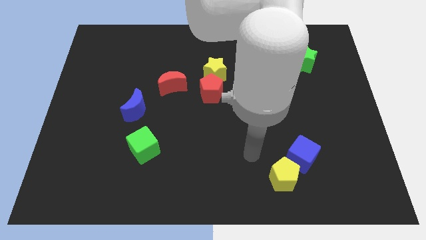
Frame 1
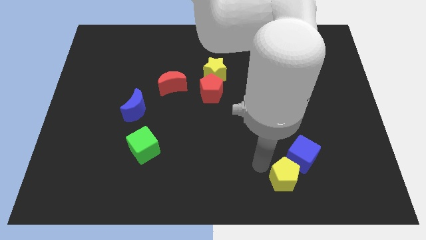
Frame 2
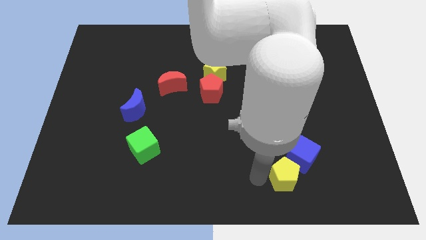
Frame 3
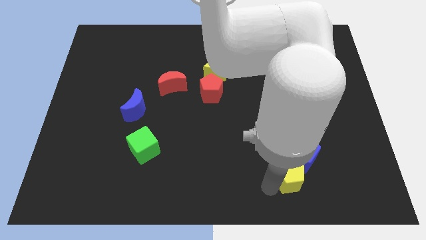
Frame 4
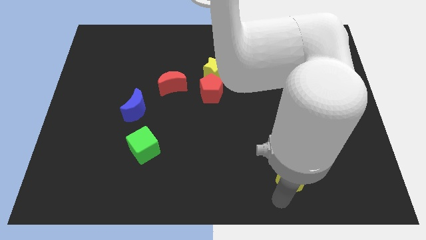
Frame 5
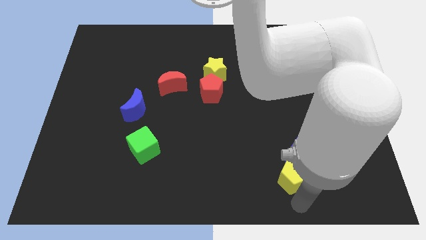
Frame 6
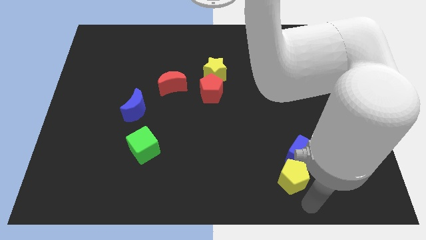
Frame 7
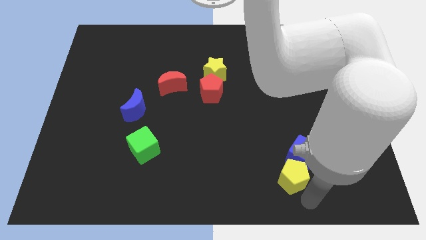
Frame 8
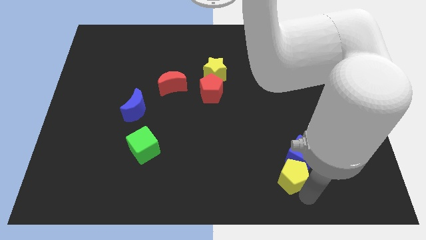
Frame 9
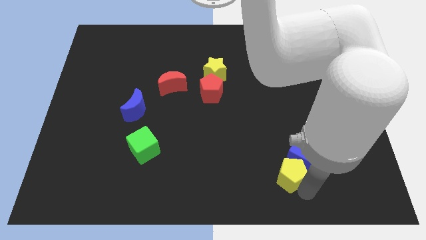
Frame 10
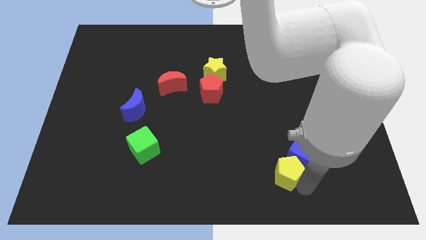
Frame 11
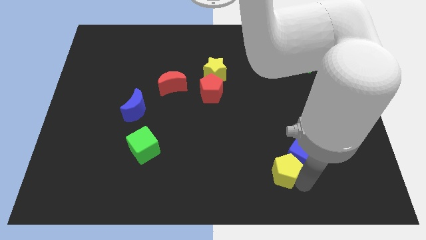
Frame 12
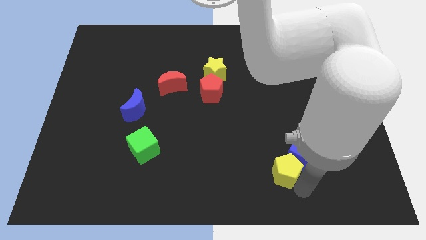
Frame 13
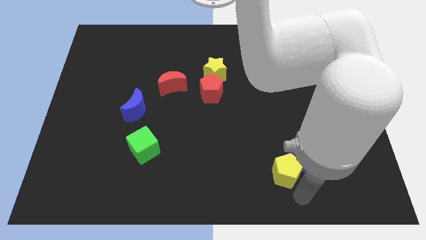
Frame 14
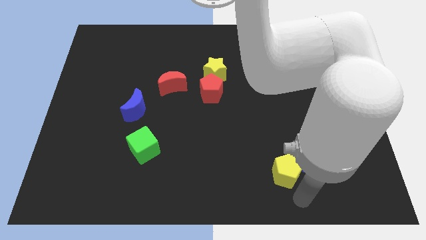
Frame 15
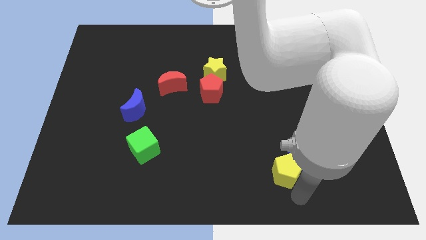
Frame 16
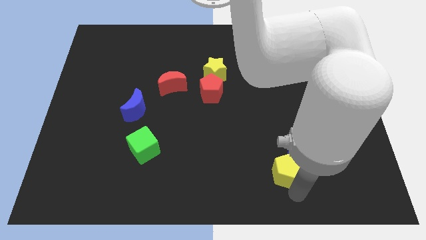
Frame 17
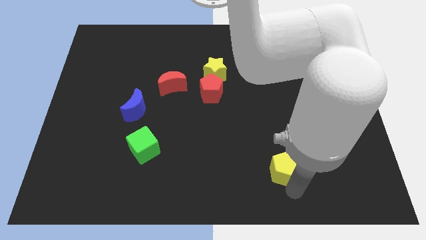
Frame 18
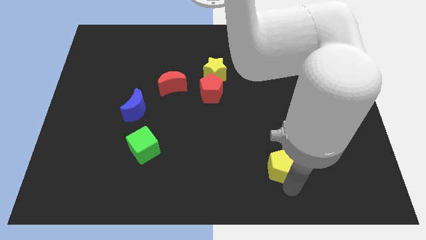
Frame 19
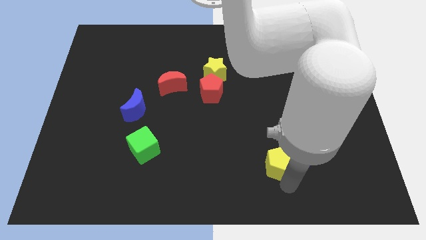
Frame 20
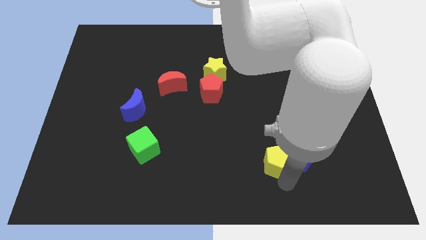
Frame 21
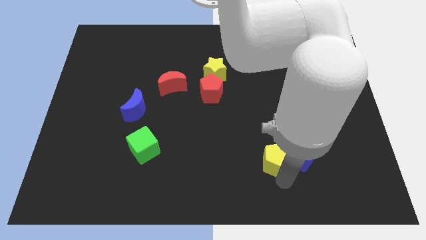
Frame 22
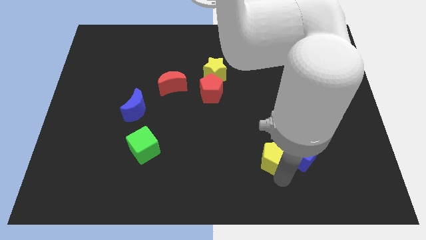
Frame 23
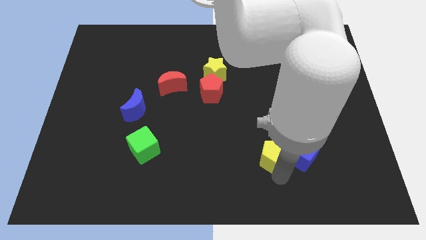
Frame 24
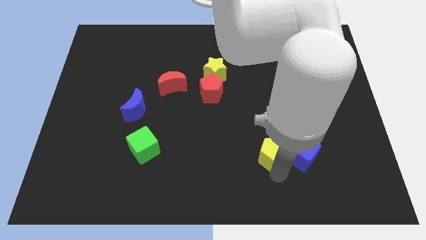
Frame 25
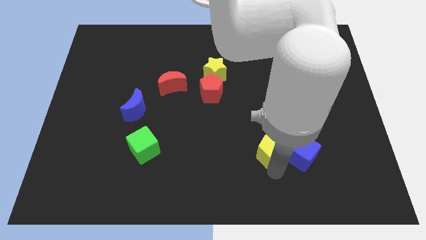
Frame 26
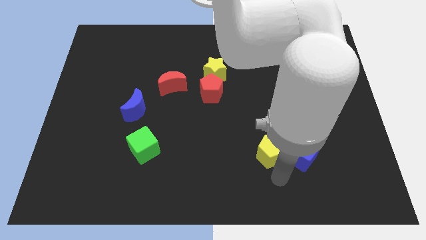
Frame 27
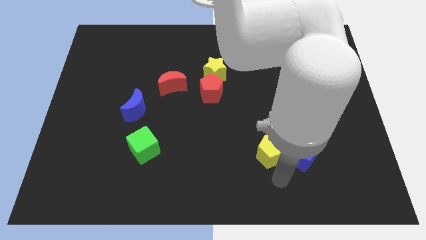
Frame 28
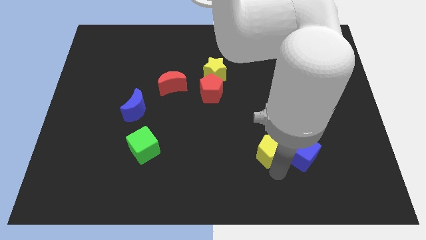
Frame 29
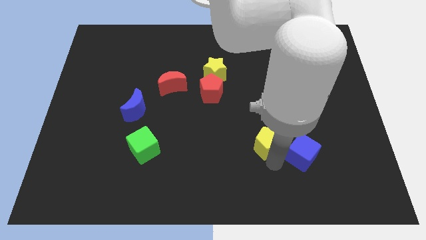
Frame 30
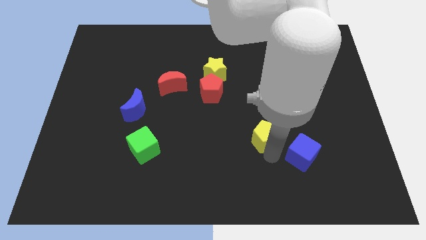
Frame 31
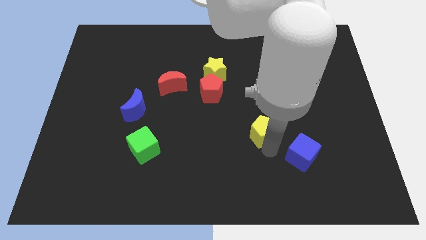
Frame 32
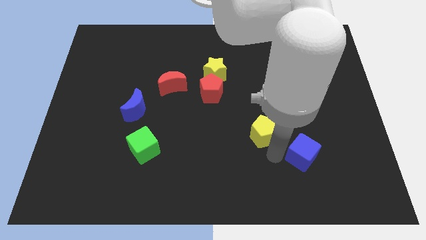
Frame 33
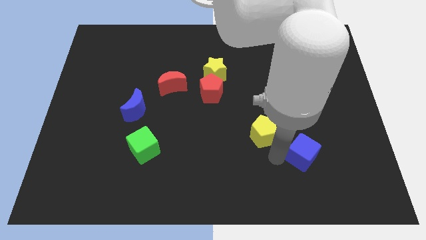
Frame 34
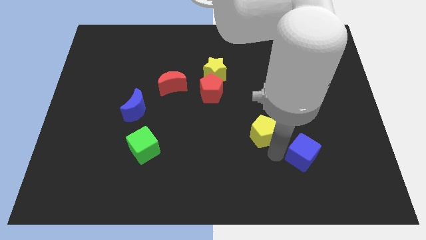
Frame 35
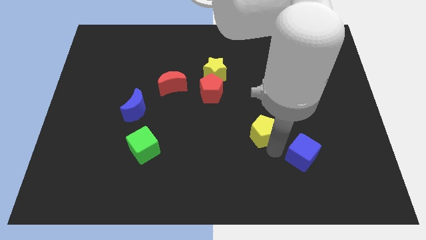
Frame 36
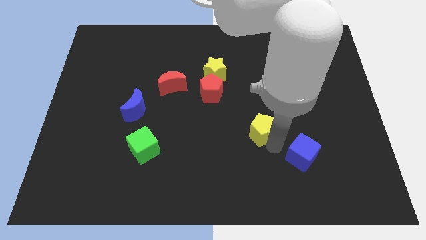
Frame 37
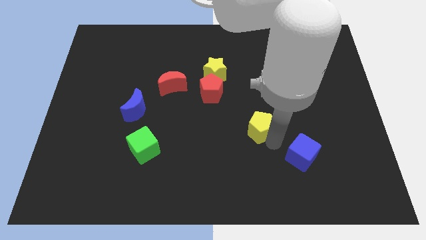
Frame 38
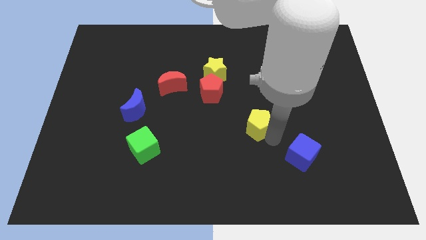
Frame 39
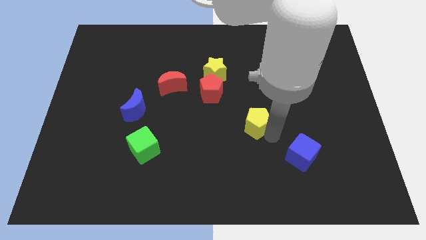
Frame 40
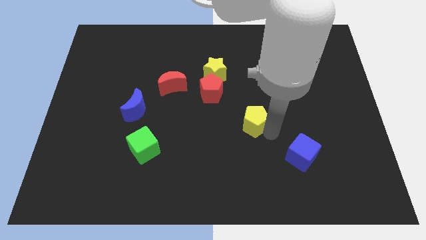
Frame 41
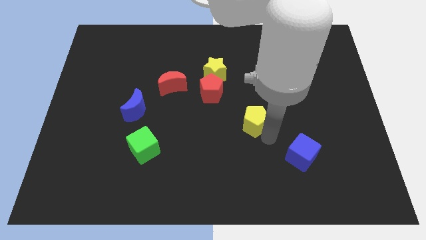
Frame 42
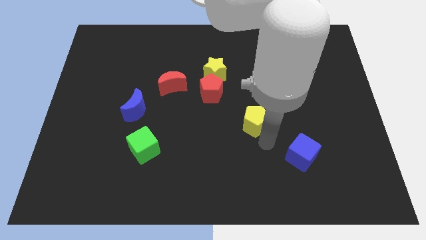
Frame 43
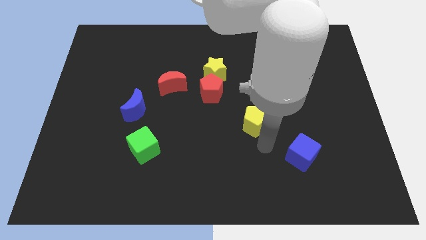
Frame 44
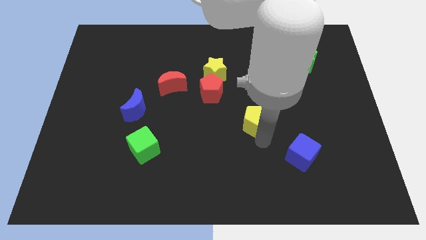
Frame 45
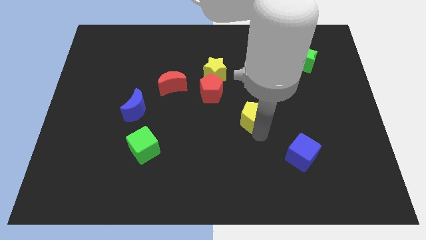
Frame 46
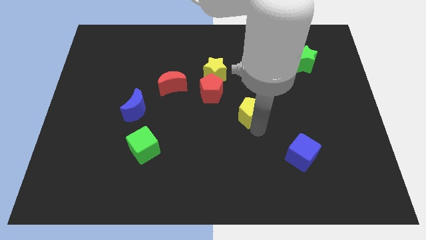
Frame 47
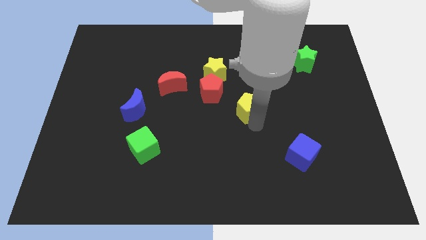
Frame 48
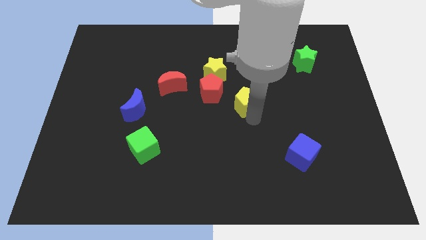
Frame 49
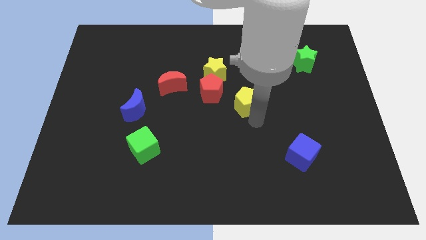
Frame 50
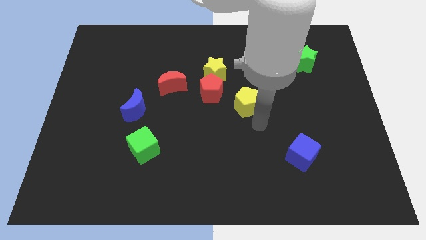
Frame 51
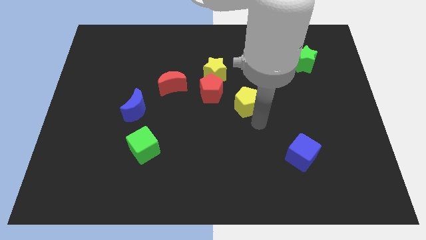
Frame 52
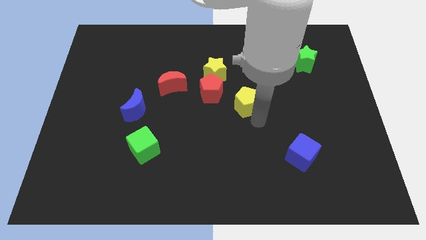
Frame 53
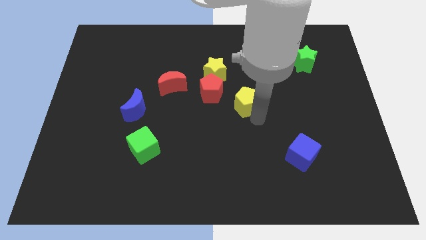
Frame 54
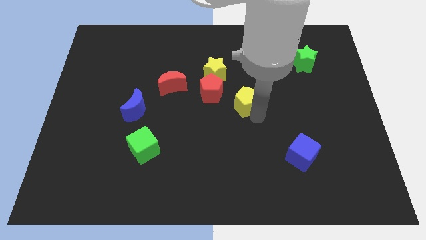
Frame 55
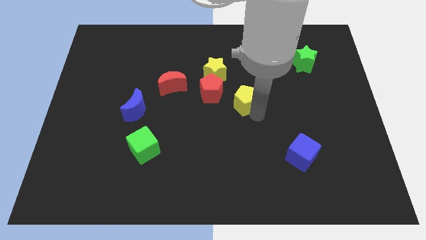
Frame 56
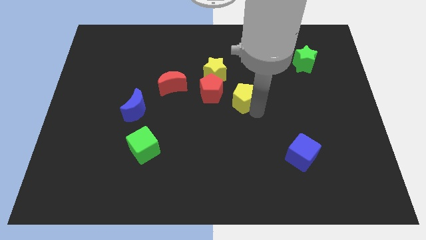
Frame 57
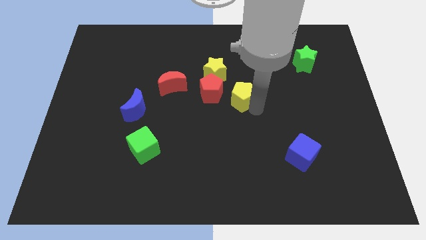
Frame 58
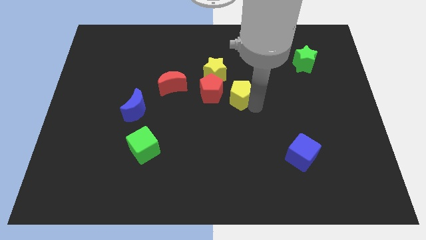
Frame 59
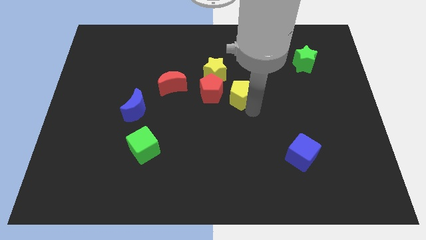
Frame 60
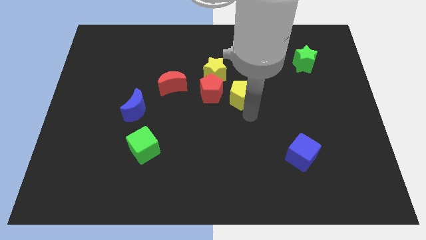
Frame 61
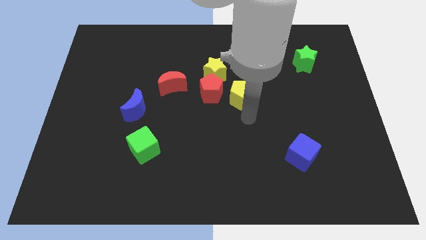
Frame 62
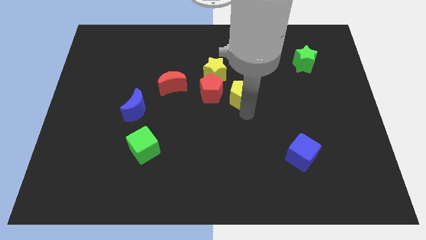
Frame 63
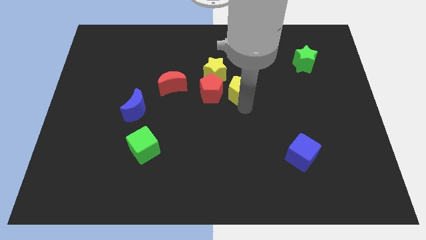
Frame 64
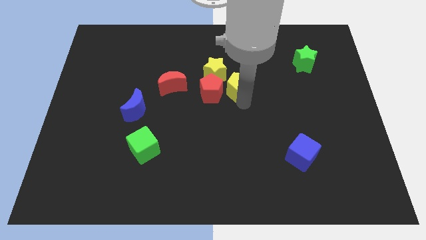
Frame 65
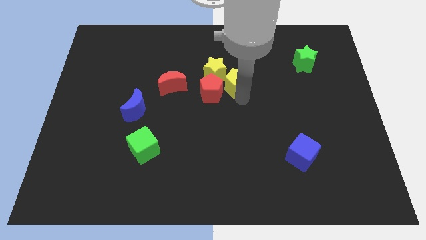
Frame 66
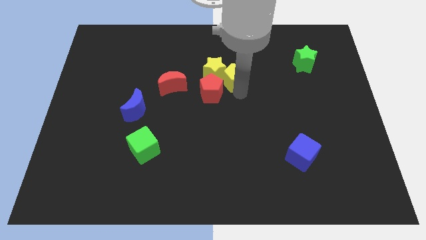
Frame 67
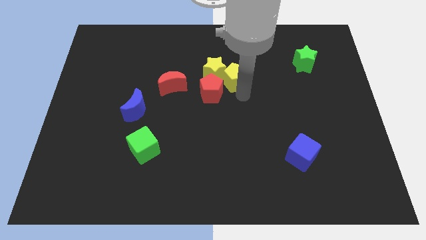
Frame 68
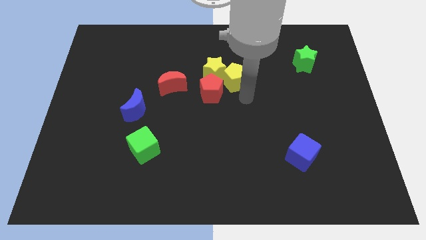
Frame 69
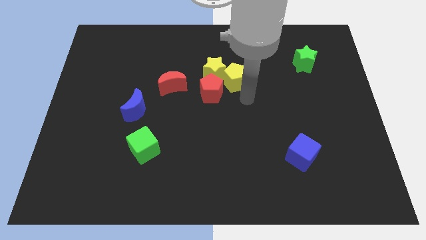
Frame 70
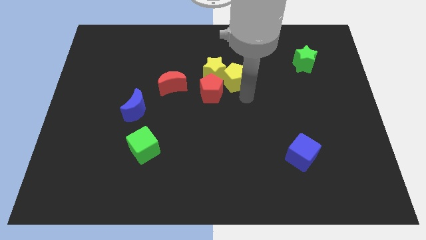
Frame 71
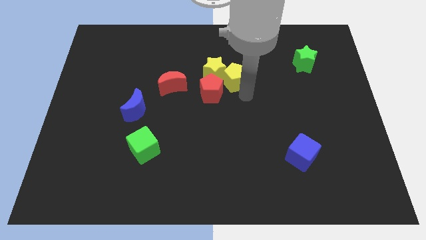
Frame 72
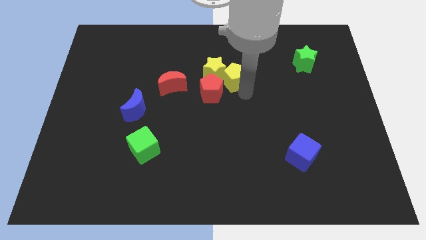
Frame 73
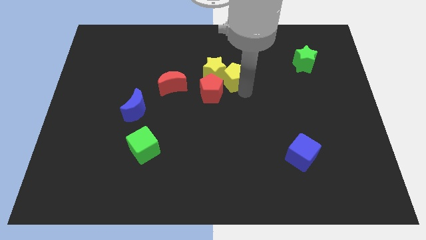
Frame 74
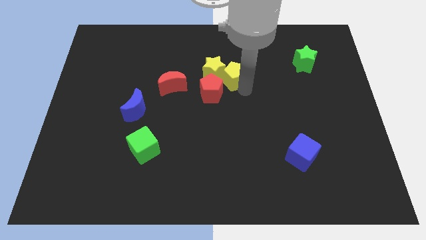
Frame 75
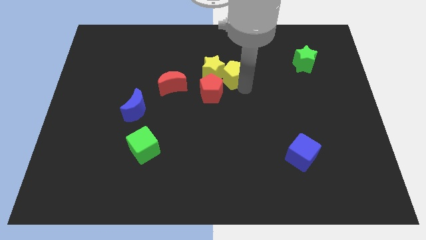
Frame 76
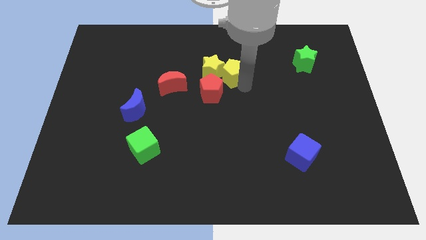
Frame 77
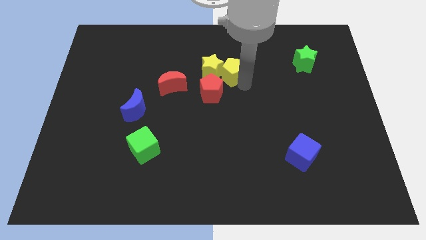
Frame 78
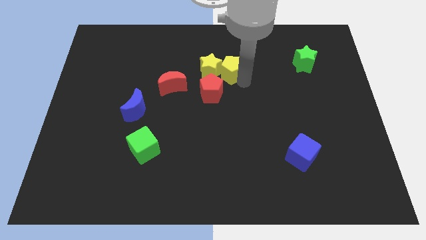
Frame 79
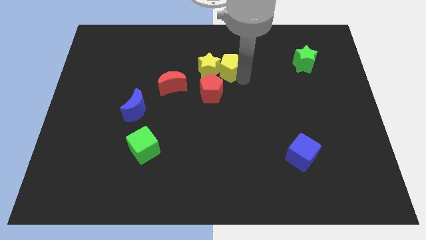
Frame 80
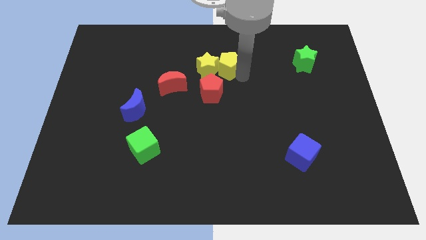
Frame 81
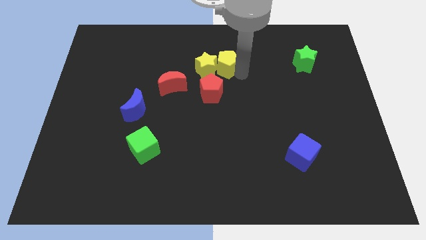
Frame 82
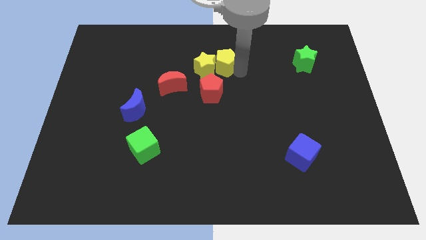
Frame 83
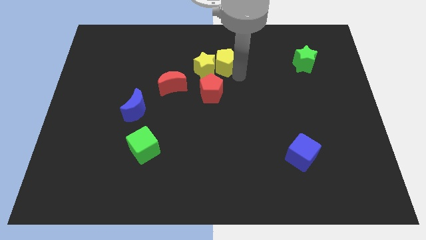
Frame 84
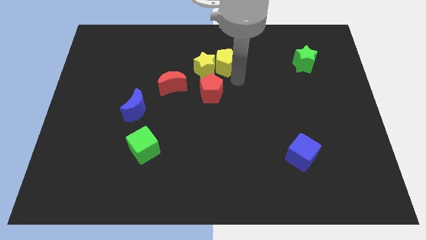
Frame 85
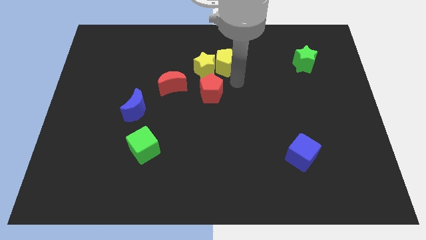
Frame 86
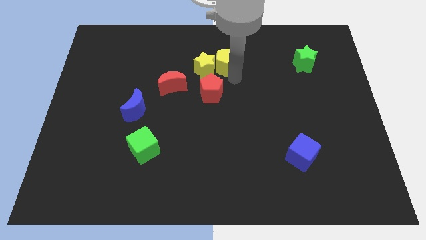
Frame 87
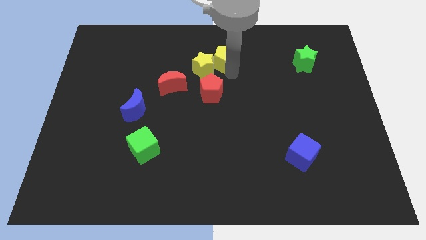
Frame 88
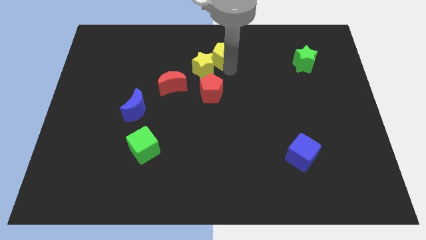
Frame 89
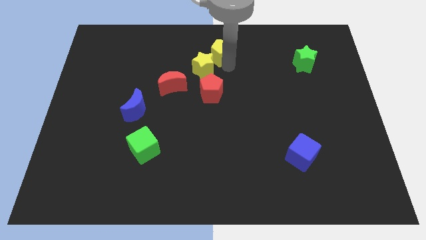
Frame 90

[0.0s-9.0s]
move the yellow pentagon to the top side
